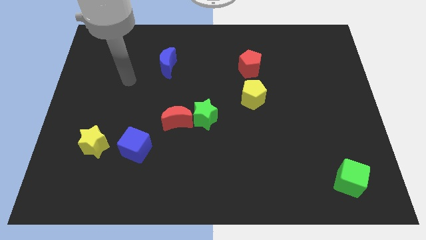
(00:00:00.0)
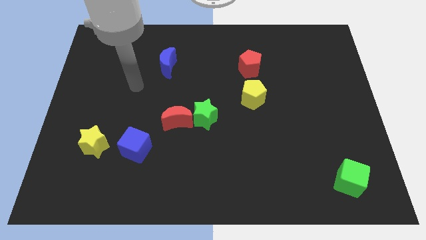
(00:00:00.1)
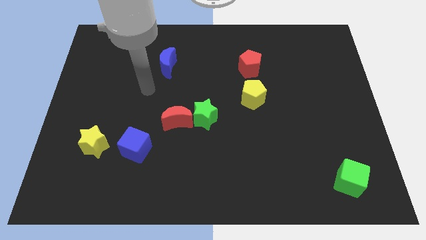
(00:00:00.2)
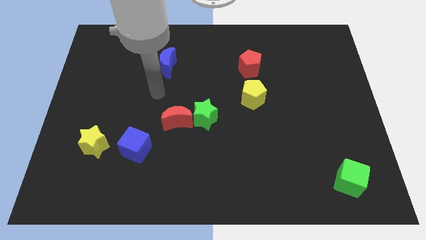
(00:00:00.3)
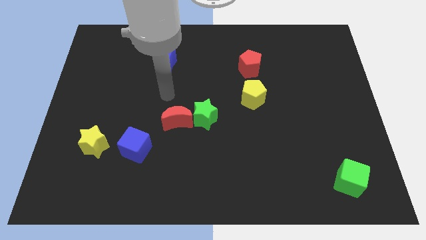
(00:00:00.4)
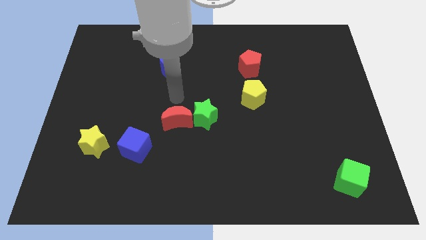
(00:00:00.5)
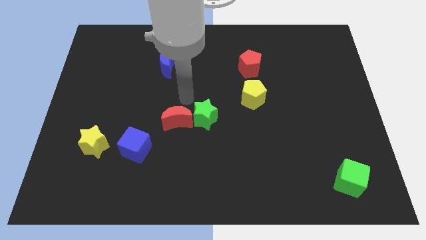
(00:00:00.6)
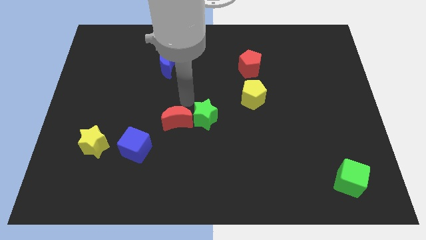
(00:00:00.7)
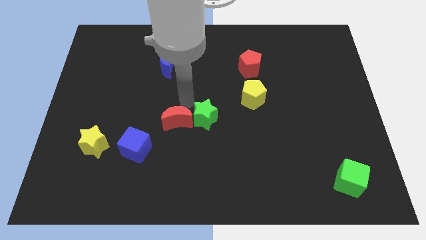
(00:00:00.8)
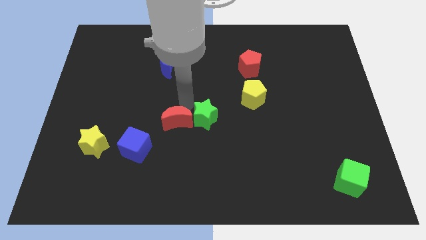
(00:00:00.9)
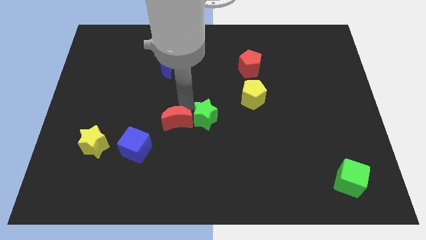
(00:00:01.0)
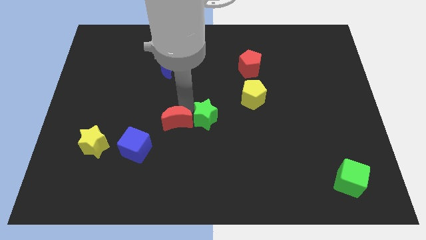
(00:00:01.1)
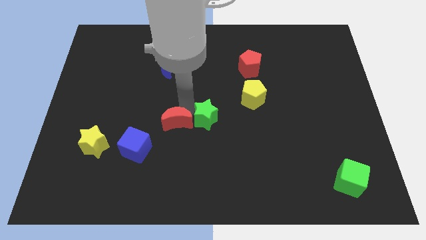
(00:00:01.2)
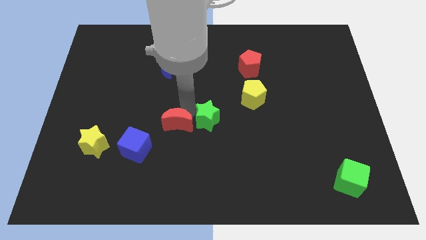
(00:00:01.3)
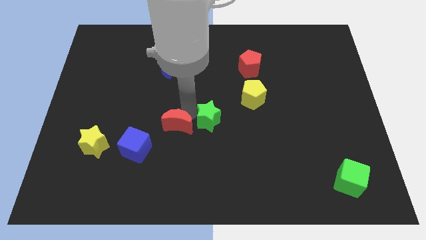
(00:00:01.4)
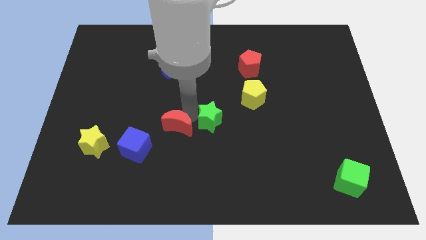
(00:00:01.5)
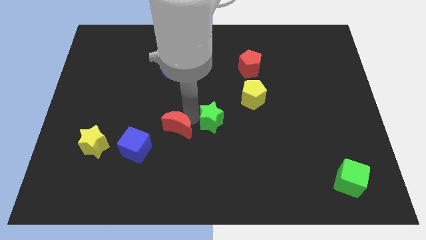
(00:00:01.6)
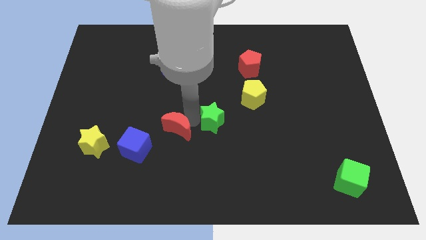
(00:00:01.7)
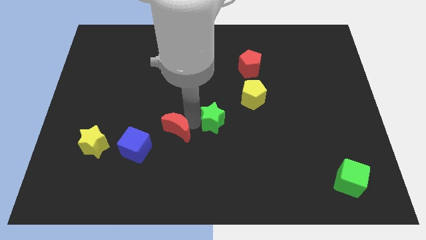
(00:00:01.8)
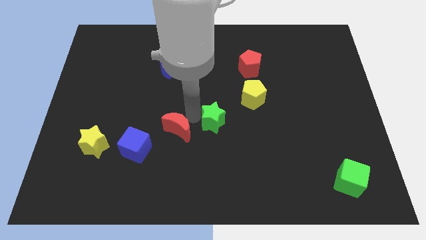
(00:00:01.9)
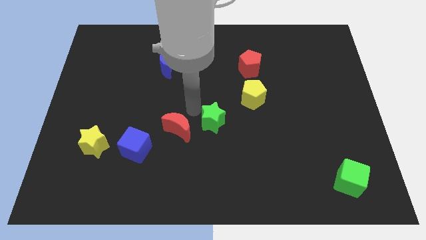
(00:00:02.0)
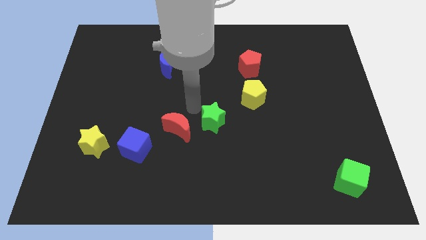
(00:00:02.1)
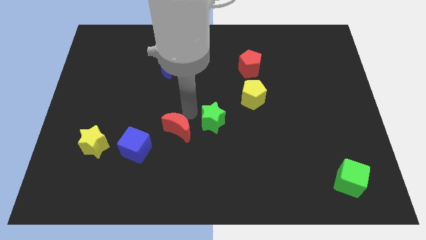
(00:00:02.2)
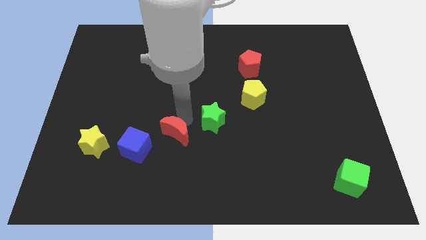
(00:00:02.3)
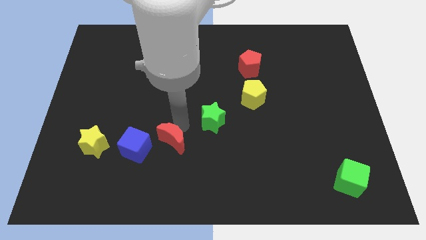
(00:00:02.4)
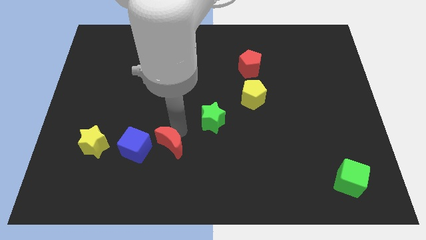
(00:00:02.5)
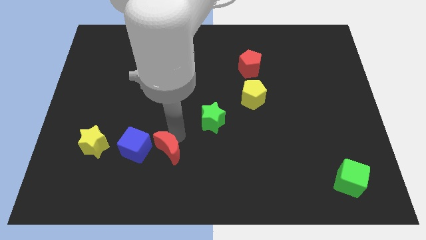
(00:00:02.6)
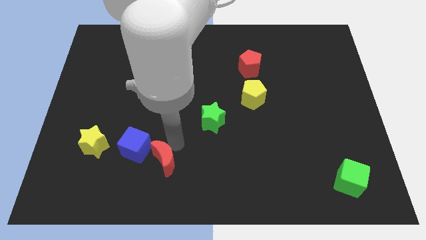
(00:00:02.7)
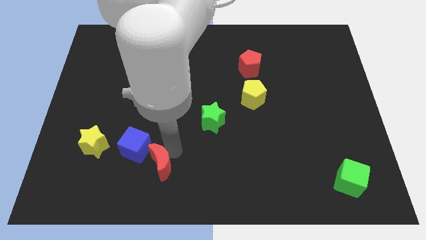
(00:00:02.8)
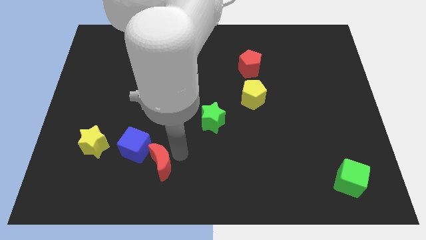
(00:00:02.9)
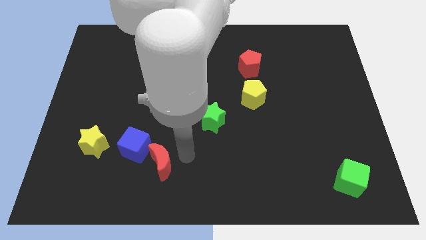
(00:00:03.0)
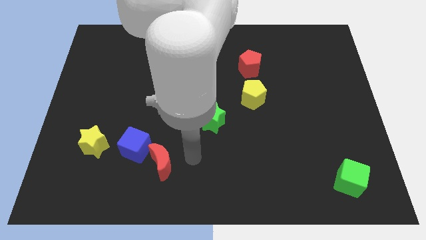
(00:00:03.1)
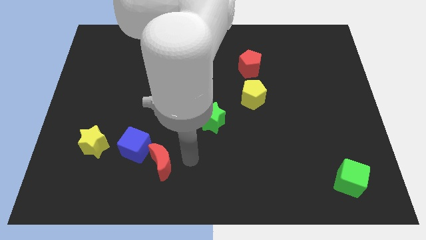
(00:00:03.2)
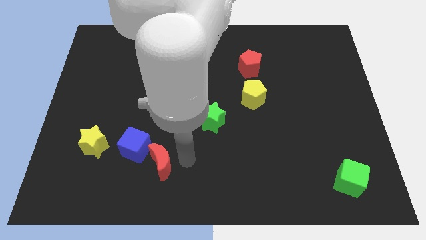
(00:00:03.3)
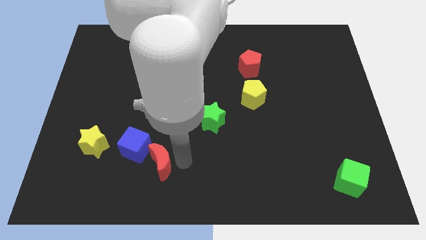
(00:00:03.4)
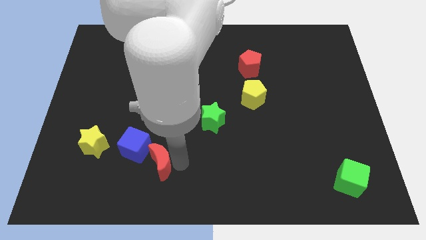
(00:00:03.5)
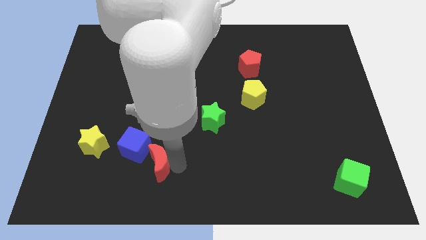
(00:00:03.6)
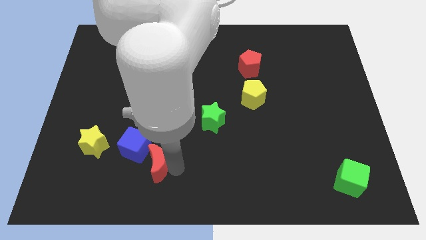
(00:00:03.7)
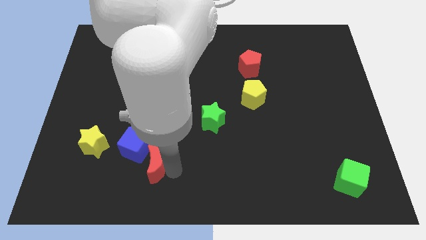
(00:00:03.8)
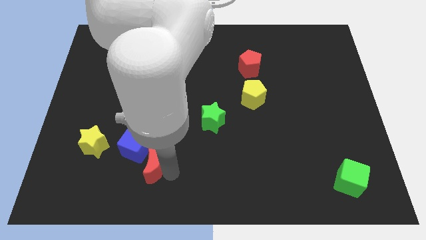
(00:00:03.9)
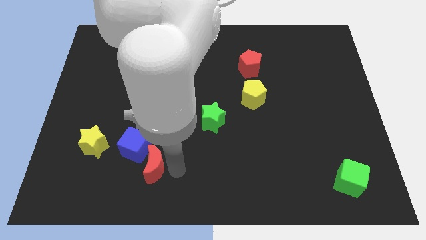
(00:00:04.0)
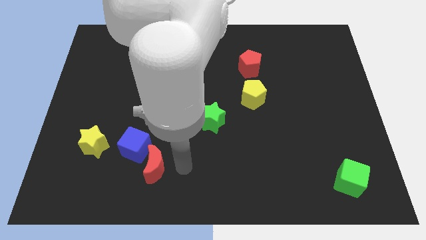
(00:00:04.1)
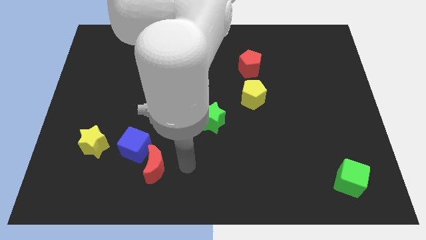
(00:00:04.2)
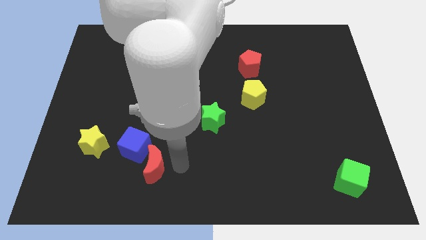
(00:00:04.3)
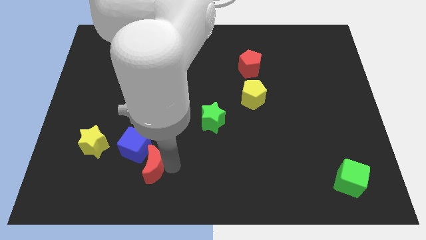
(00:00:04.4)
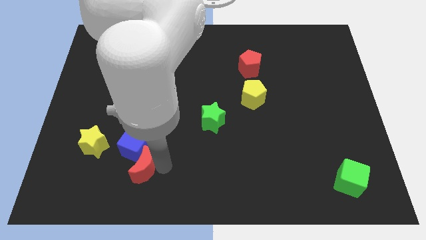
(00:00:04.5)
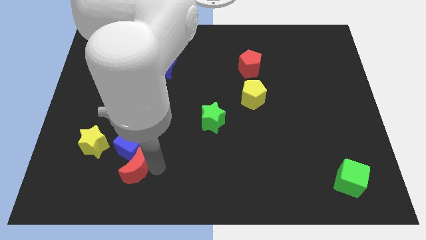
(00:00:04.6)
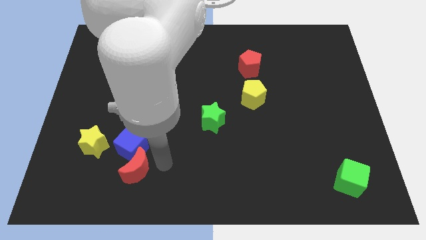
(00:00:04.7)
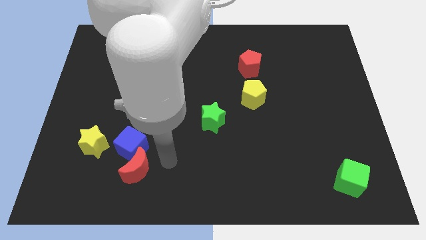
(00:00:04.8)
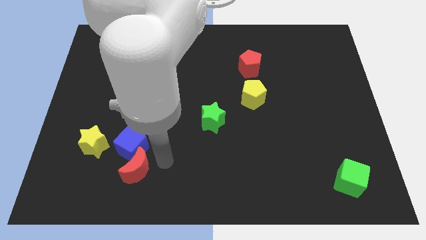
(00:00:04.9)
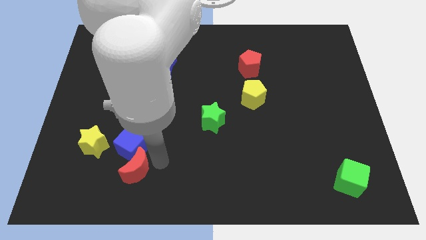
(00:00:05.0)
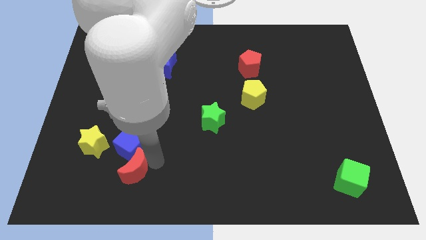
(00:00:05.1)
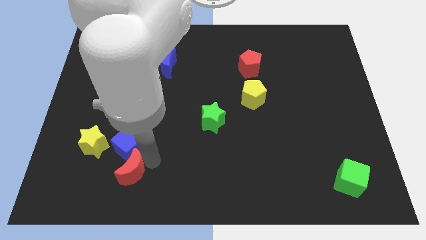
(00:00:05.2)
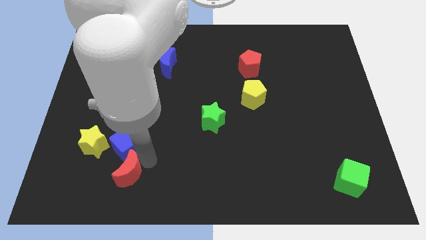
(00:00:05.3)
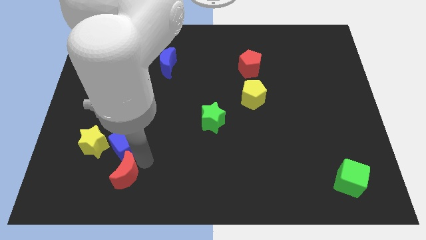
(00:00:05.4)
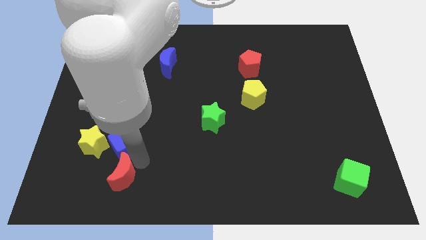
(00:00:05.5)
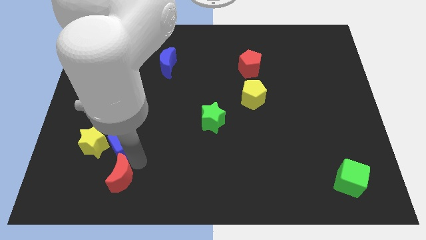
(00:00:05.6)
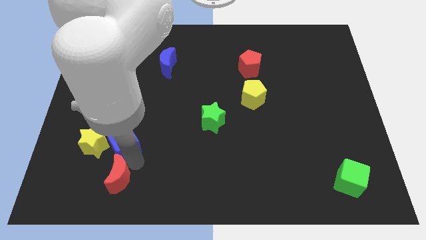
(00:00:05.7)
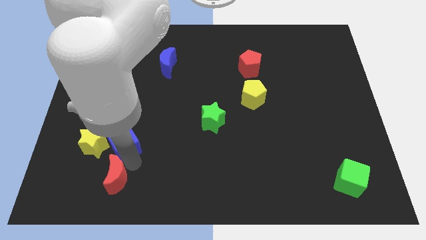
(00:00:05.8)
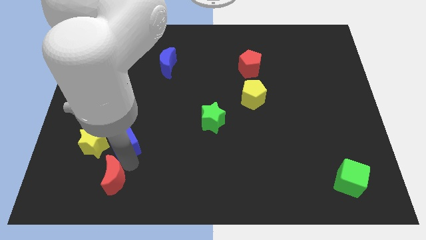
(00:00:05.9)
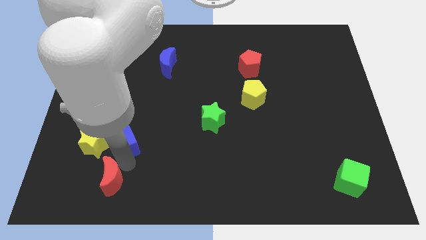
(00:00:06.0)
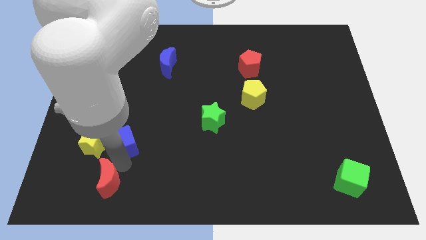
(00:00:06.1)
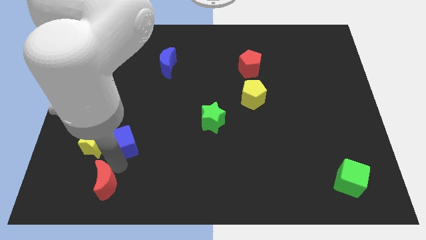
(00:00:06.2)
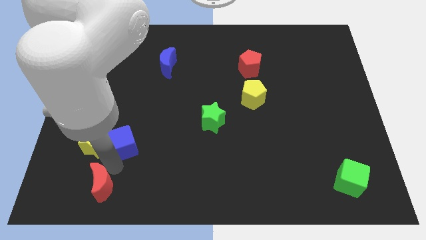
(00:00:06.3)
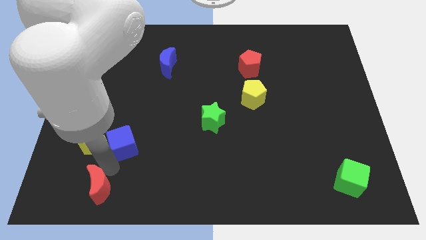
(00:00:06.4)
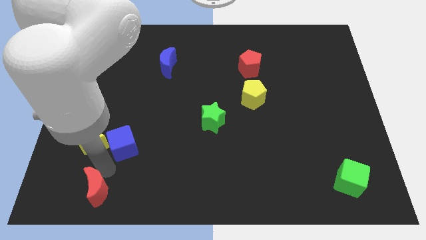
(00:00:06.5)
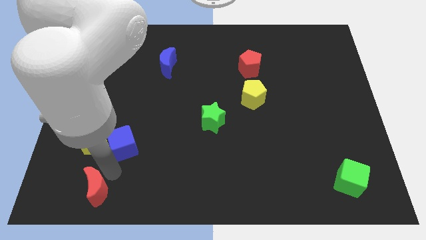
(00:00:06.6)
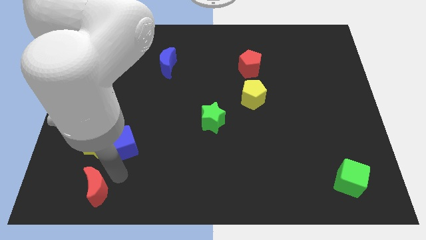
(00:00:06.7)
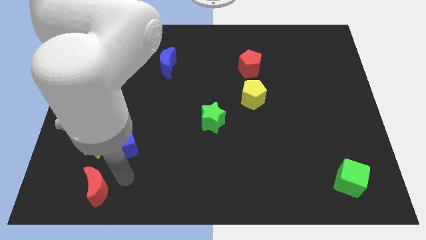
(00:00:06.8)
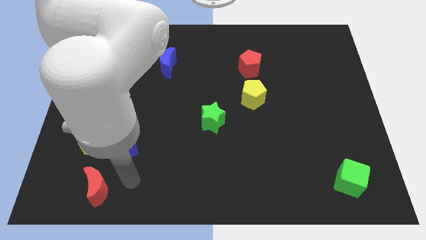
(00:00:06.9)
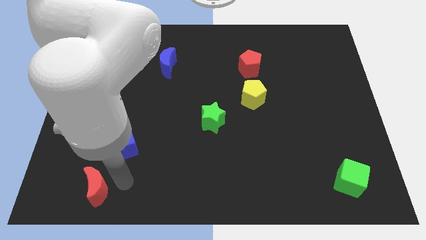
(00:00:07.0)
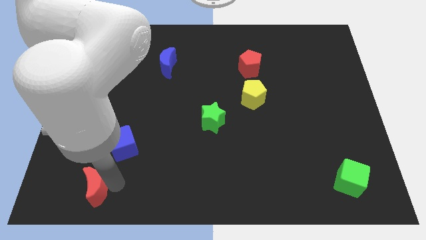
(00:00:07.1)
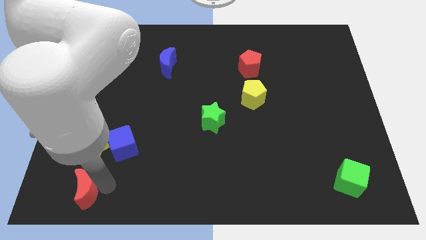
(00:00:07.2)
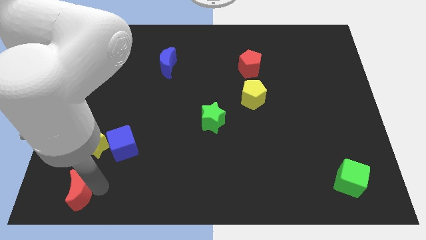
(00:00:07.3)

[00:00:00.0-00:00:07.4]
move the red moon to the bottom left of the board
